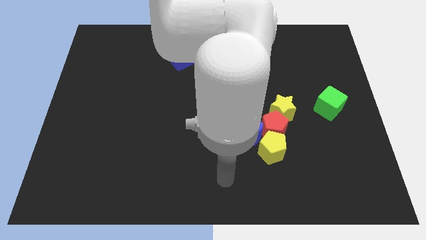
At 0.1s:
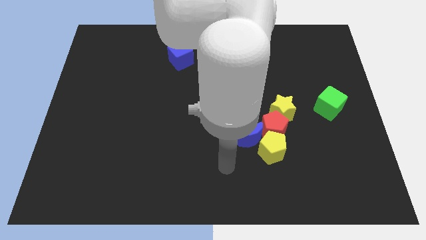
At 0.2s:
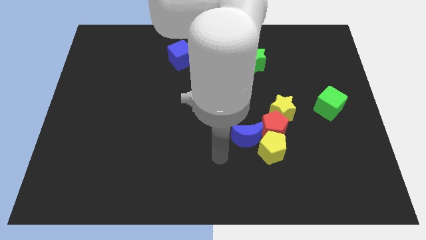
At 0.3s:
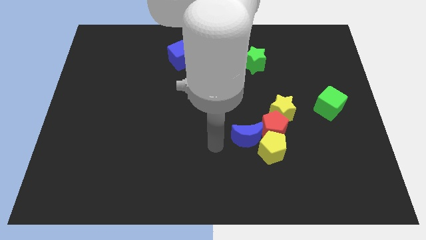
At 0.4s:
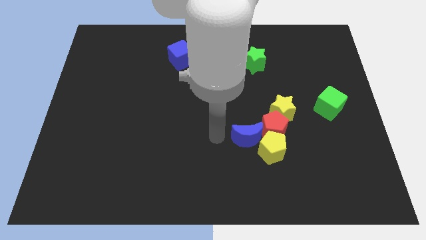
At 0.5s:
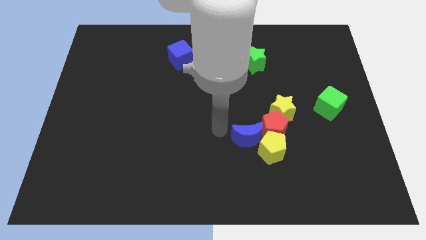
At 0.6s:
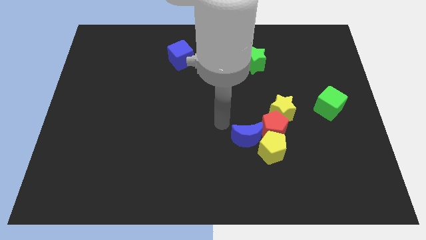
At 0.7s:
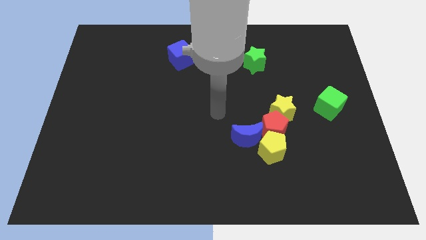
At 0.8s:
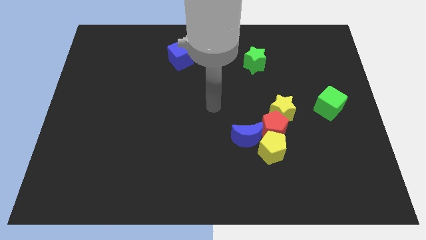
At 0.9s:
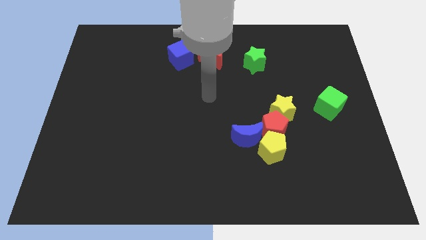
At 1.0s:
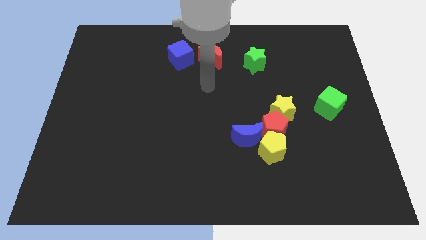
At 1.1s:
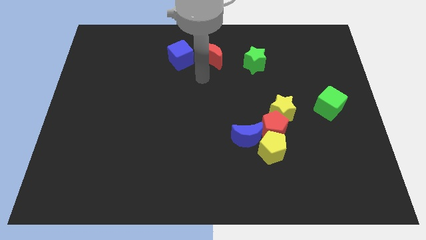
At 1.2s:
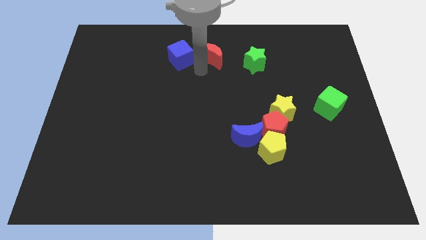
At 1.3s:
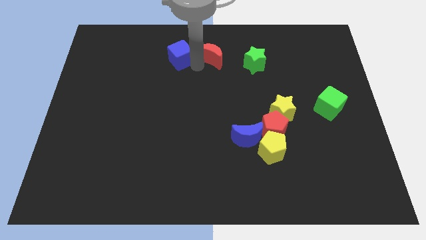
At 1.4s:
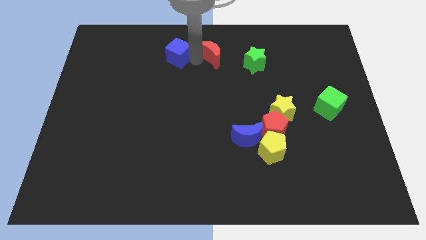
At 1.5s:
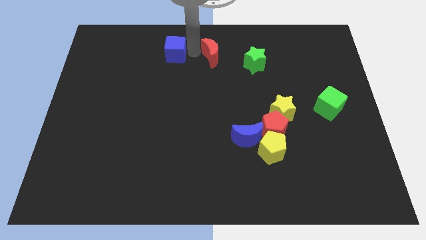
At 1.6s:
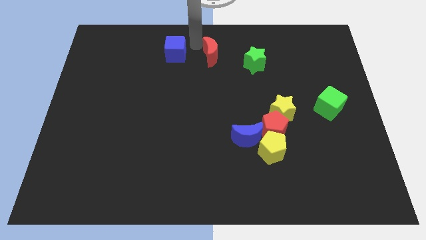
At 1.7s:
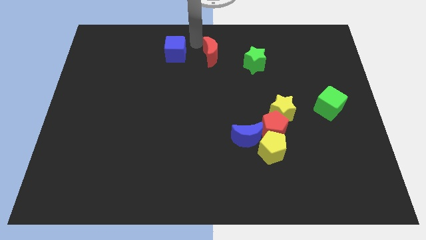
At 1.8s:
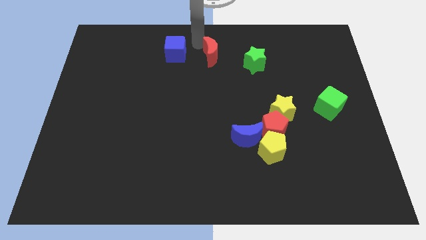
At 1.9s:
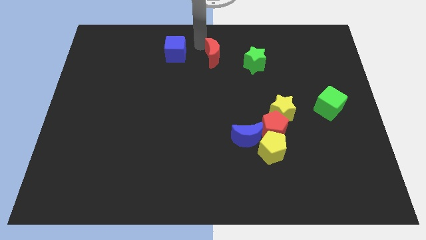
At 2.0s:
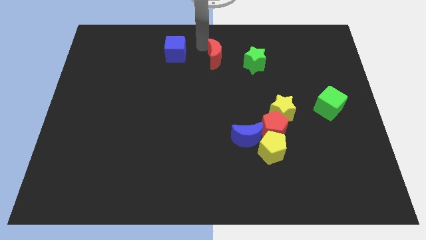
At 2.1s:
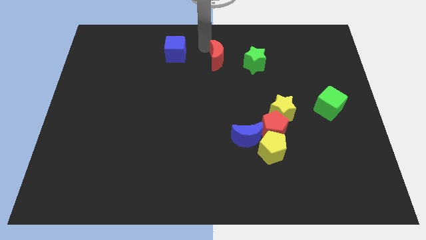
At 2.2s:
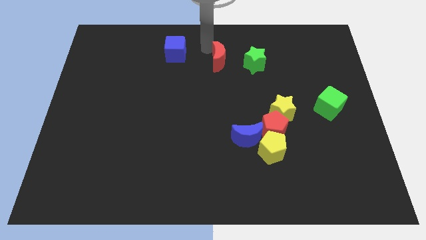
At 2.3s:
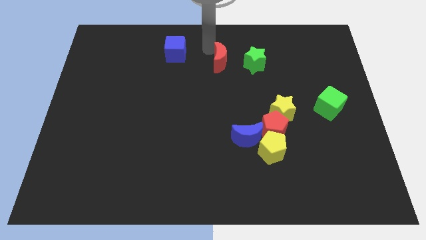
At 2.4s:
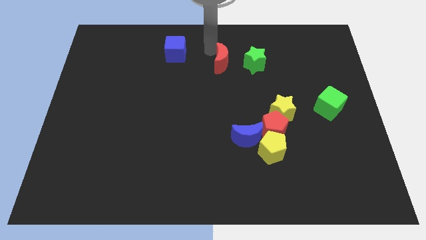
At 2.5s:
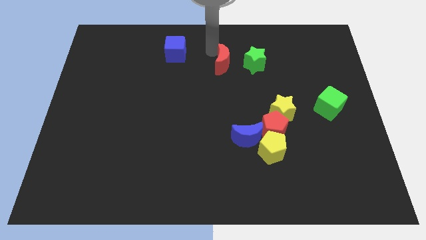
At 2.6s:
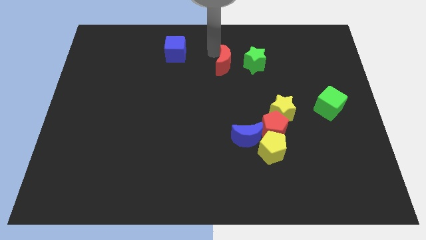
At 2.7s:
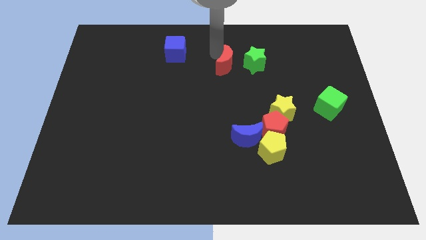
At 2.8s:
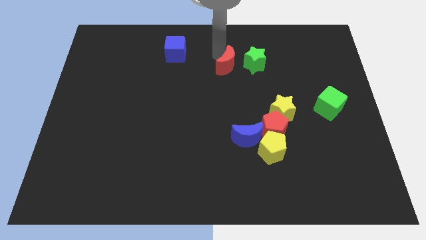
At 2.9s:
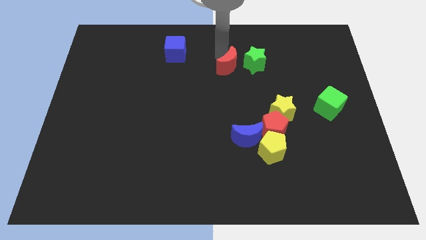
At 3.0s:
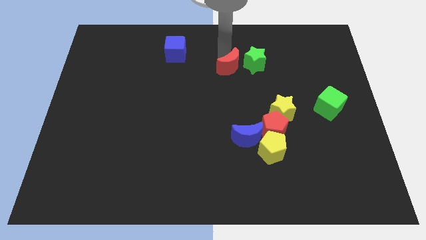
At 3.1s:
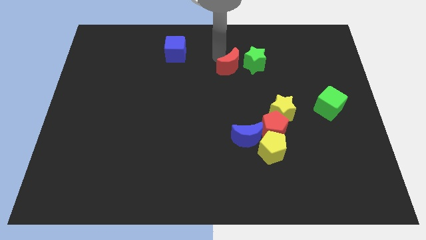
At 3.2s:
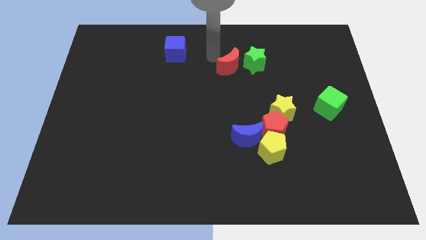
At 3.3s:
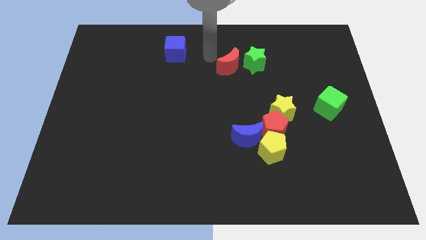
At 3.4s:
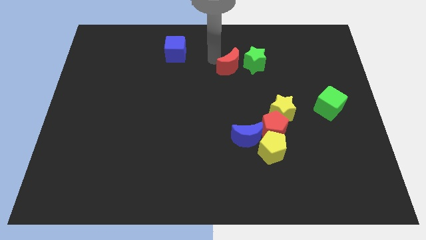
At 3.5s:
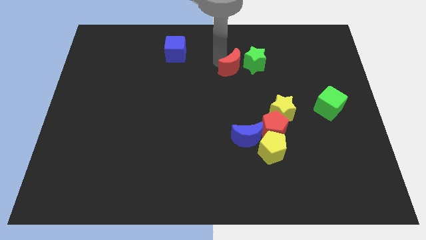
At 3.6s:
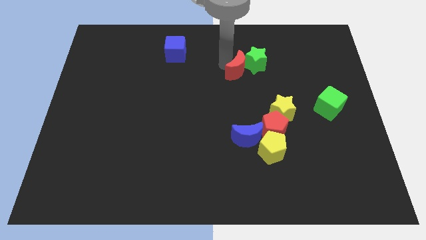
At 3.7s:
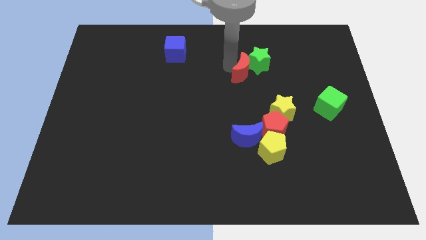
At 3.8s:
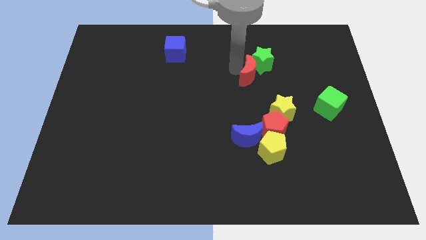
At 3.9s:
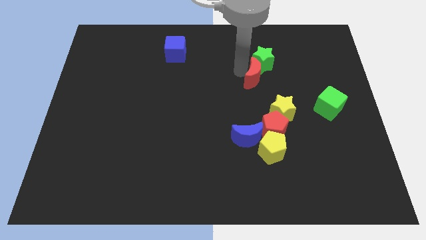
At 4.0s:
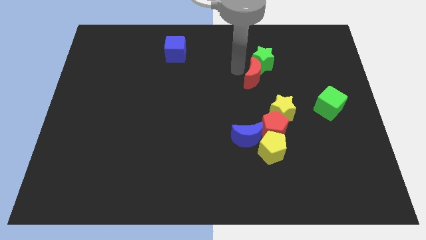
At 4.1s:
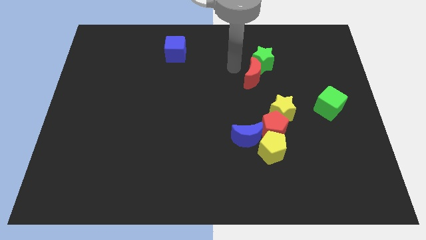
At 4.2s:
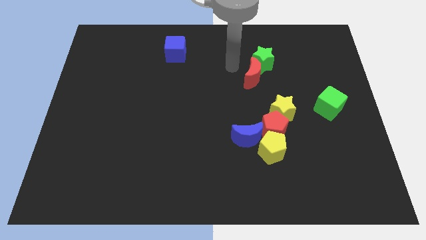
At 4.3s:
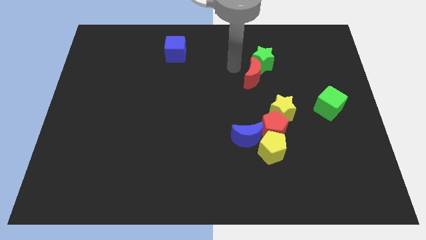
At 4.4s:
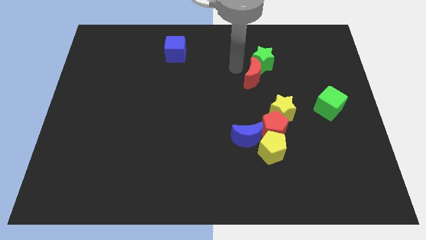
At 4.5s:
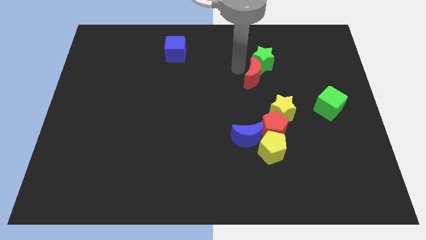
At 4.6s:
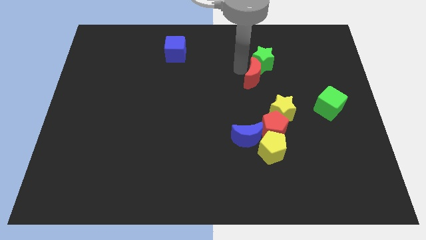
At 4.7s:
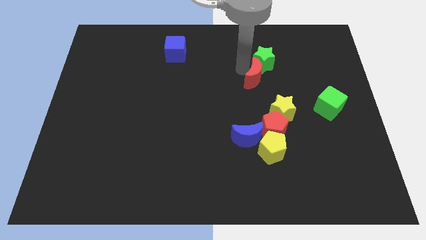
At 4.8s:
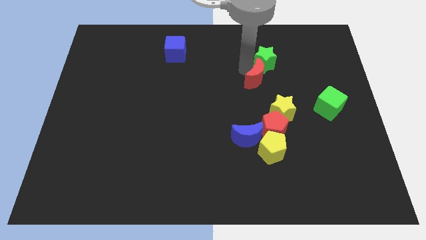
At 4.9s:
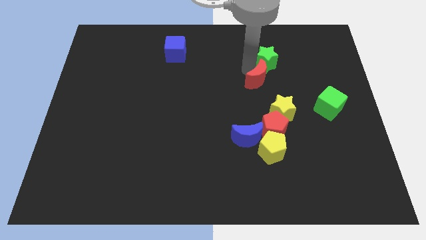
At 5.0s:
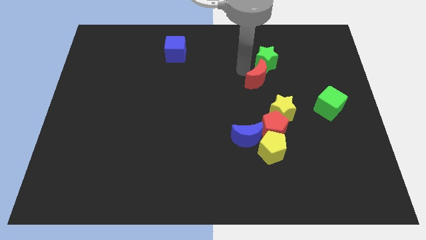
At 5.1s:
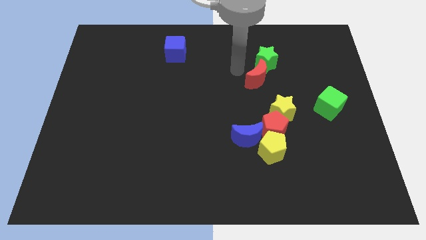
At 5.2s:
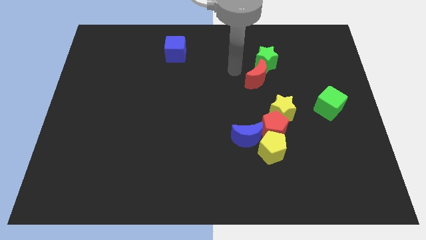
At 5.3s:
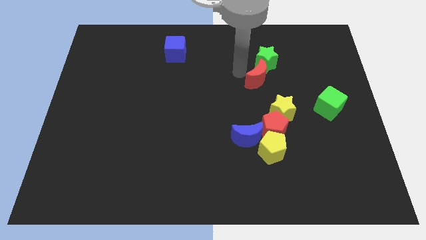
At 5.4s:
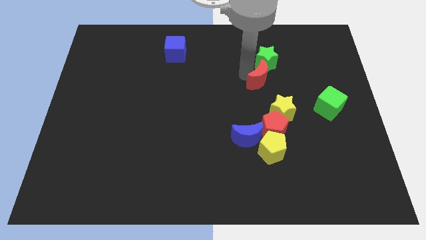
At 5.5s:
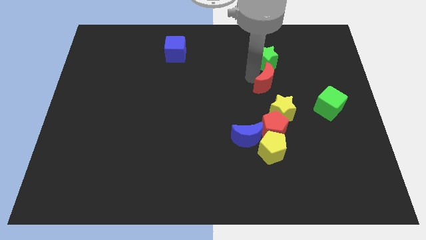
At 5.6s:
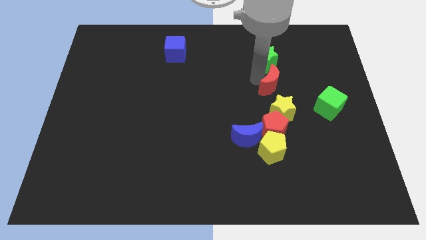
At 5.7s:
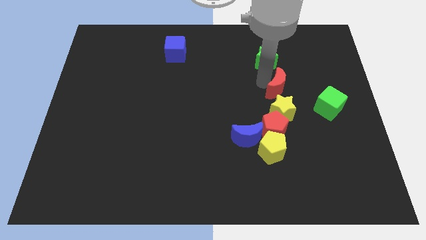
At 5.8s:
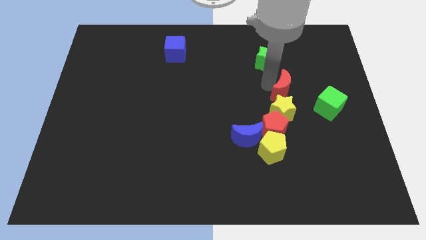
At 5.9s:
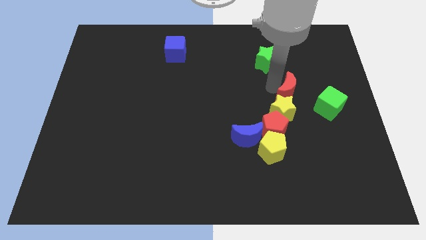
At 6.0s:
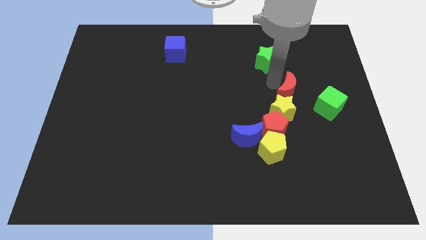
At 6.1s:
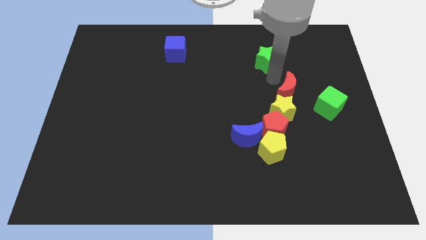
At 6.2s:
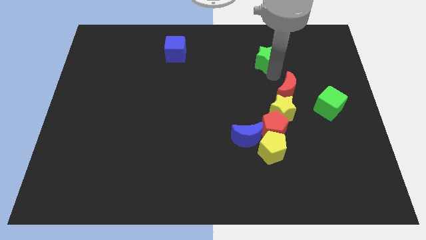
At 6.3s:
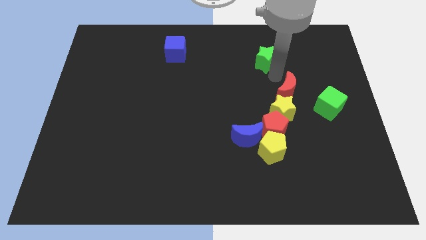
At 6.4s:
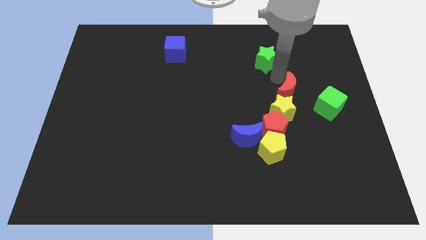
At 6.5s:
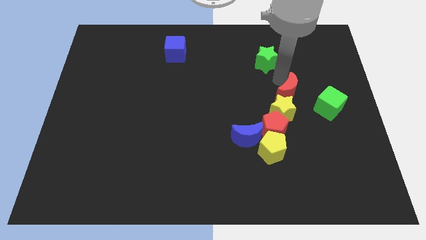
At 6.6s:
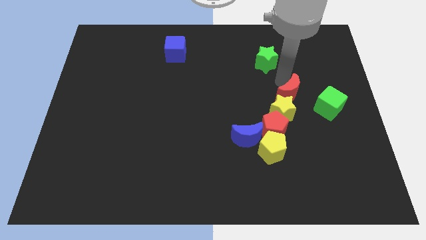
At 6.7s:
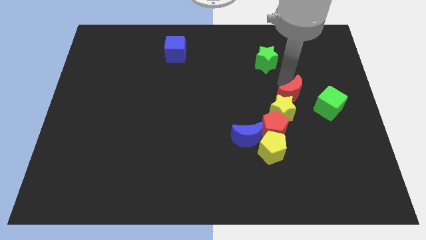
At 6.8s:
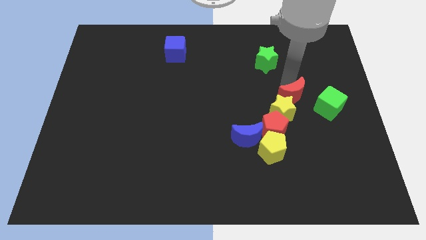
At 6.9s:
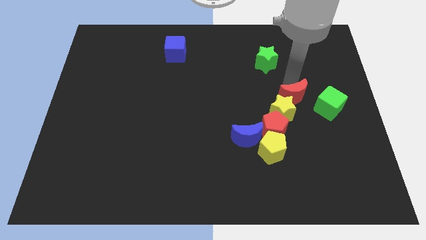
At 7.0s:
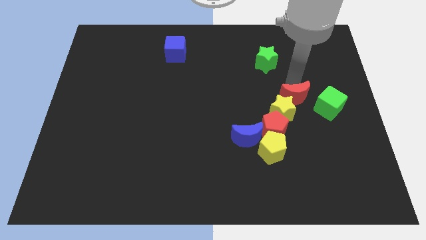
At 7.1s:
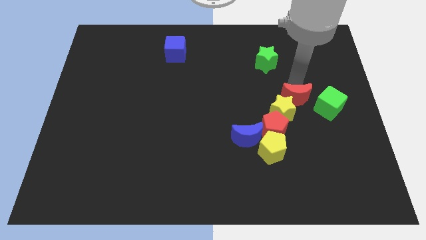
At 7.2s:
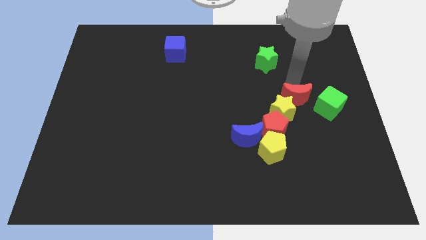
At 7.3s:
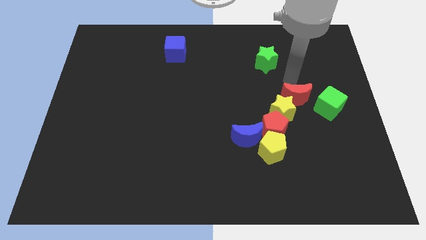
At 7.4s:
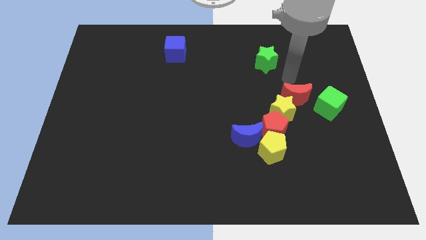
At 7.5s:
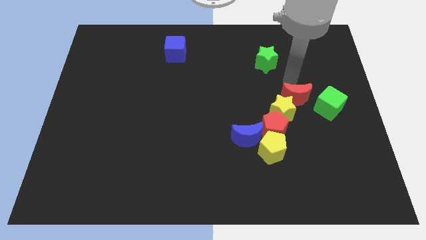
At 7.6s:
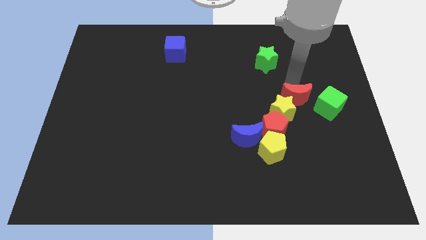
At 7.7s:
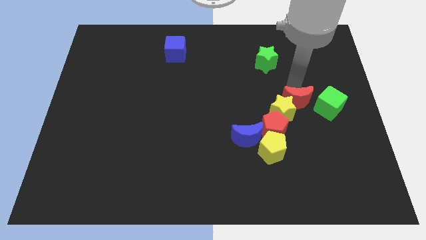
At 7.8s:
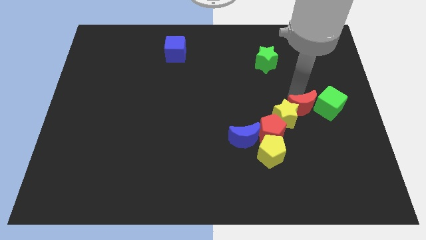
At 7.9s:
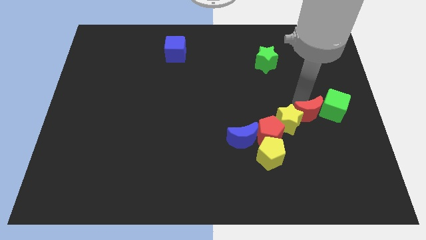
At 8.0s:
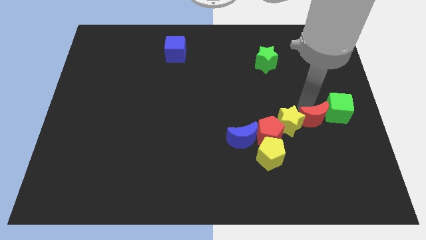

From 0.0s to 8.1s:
put the red moon to the bottom right of the yellow star
